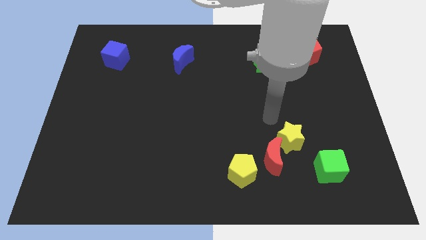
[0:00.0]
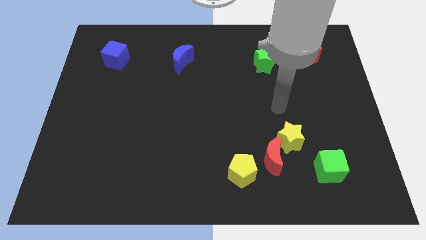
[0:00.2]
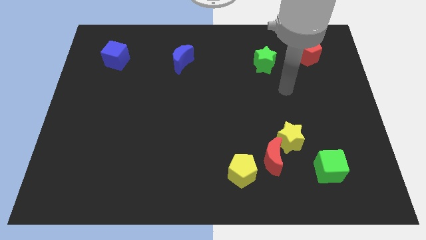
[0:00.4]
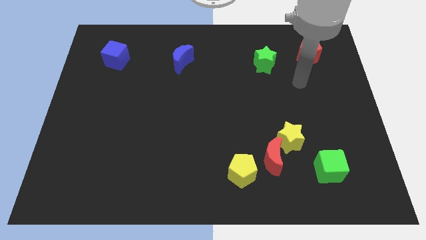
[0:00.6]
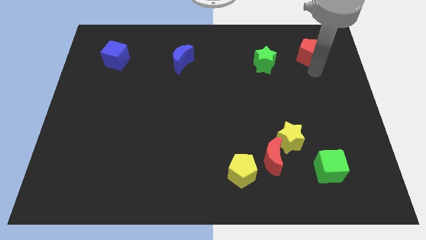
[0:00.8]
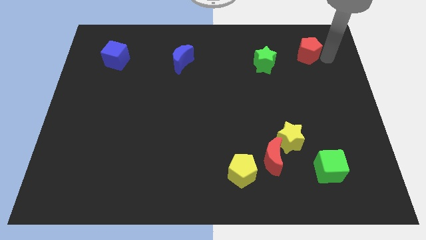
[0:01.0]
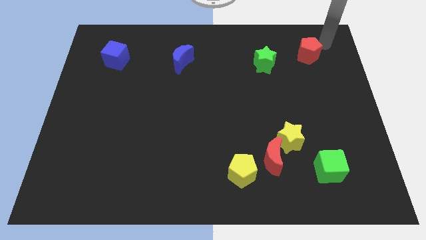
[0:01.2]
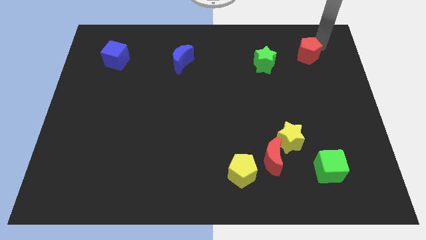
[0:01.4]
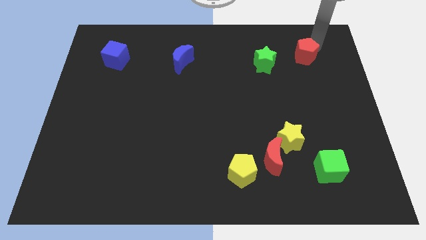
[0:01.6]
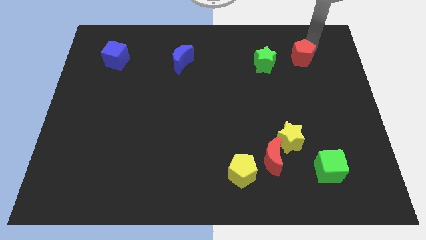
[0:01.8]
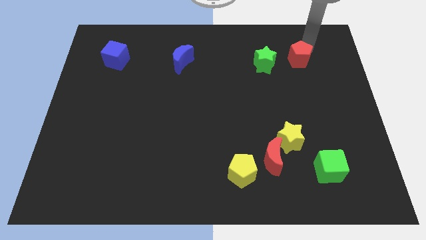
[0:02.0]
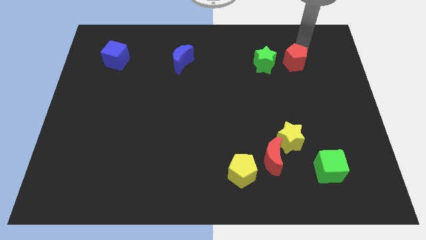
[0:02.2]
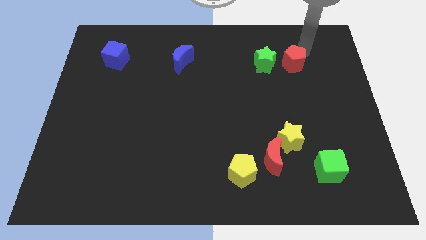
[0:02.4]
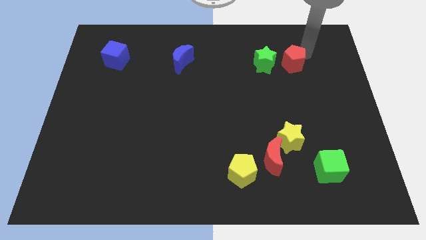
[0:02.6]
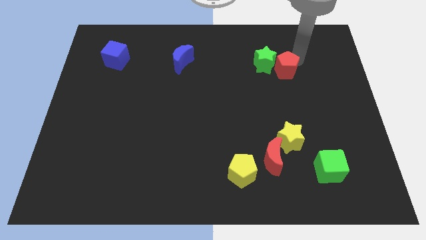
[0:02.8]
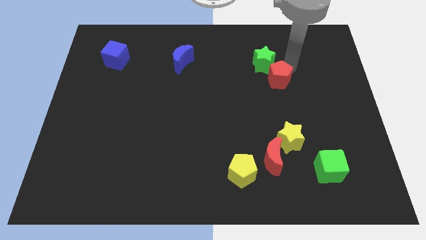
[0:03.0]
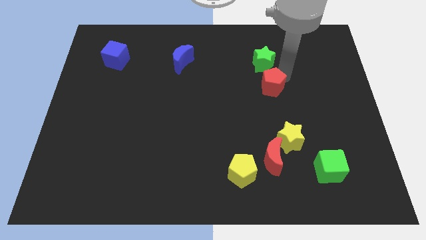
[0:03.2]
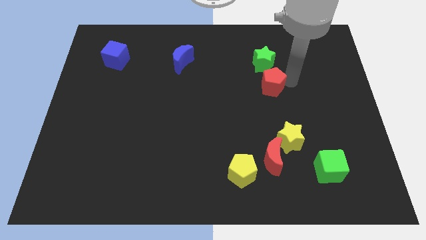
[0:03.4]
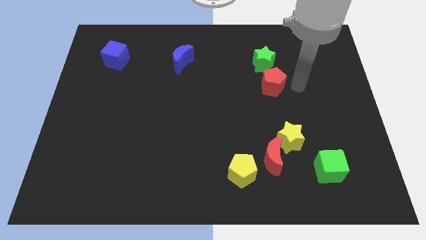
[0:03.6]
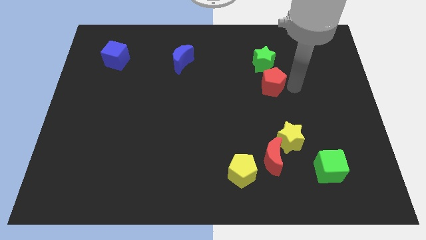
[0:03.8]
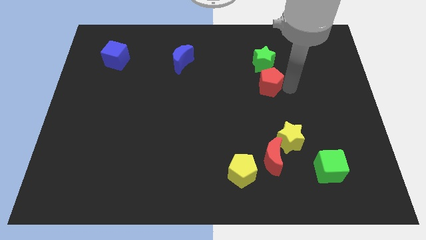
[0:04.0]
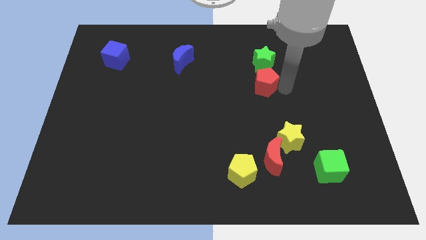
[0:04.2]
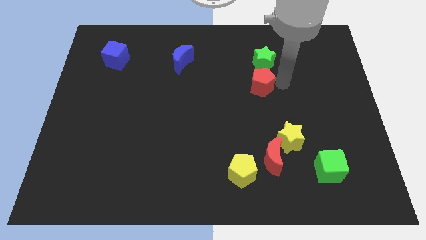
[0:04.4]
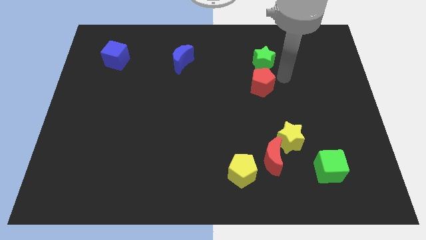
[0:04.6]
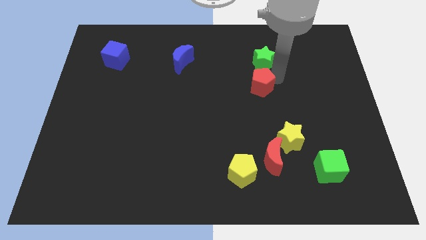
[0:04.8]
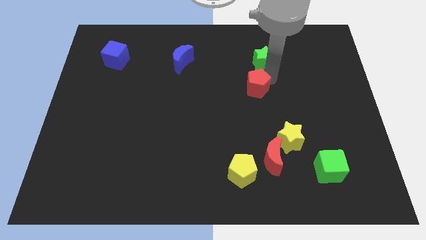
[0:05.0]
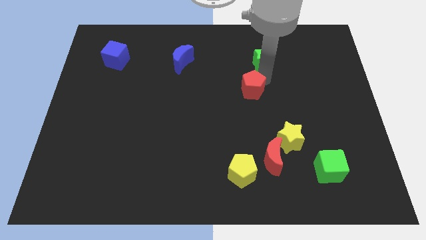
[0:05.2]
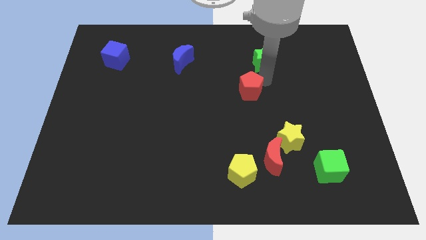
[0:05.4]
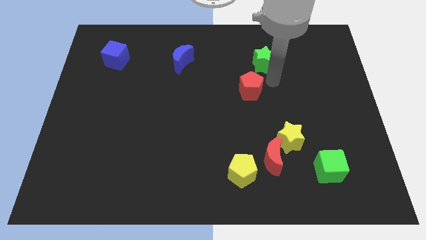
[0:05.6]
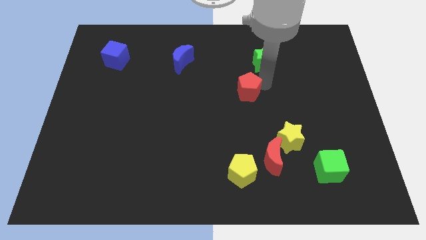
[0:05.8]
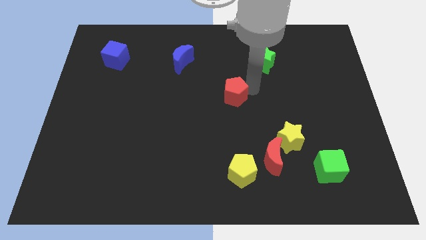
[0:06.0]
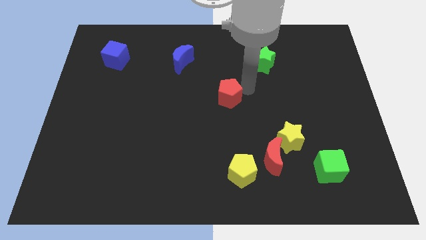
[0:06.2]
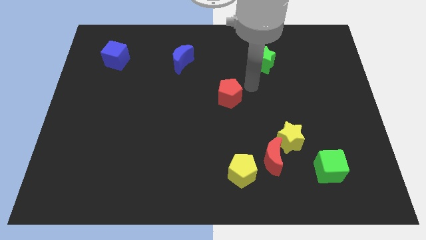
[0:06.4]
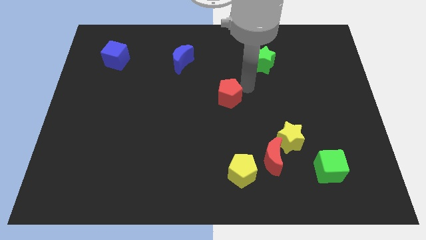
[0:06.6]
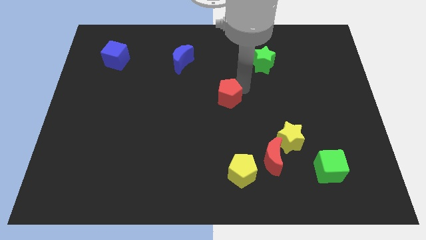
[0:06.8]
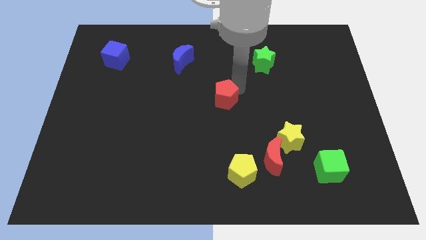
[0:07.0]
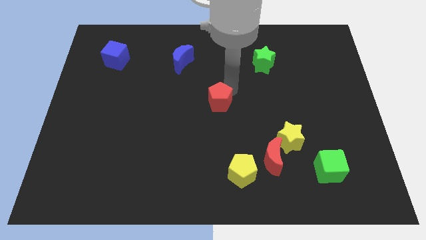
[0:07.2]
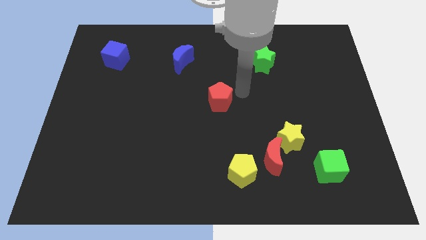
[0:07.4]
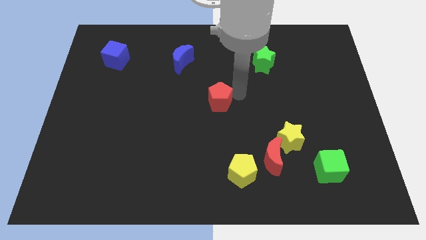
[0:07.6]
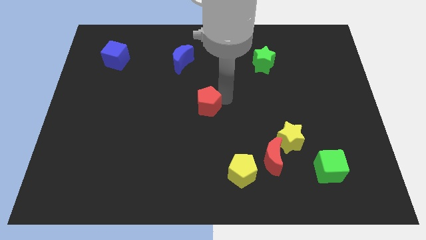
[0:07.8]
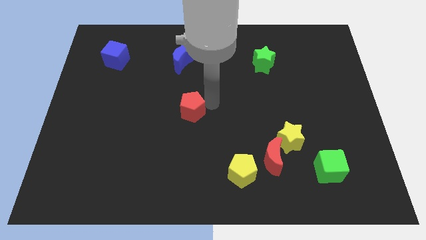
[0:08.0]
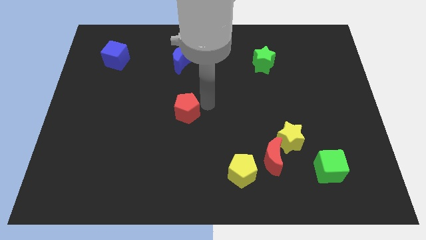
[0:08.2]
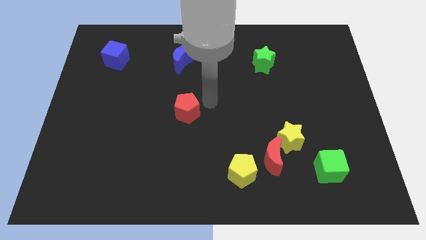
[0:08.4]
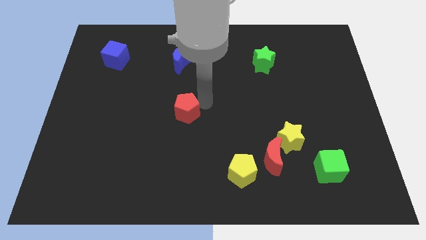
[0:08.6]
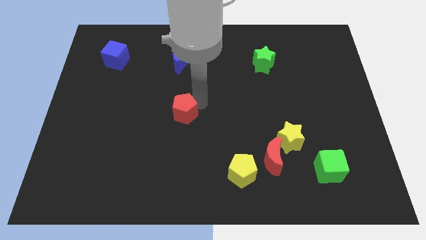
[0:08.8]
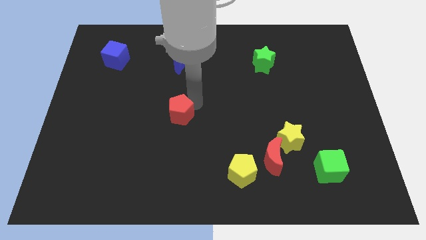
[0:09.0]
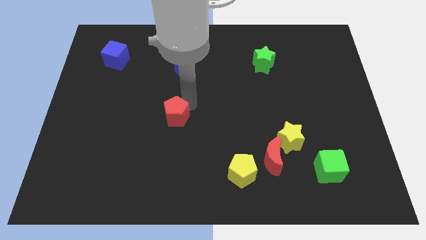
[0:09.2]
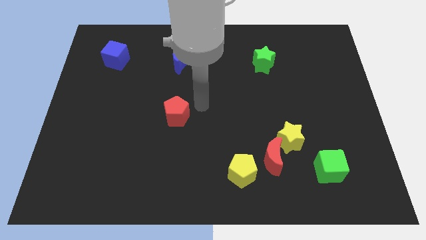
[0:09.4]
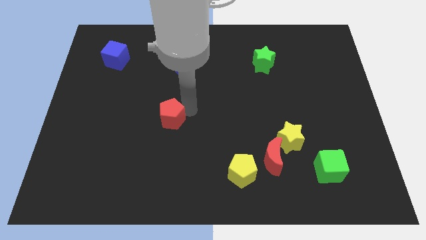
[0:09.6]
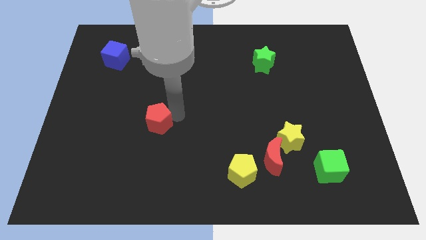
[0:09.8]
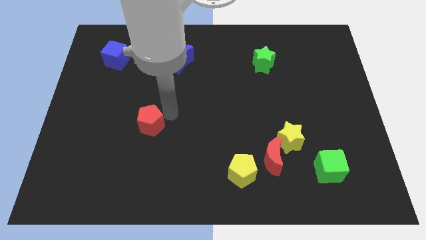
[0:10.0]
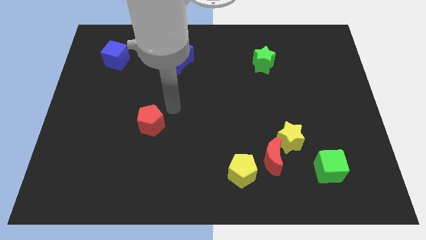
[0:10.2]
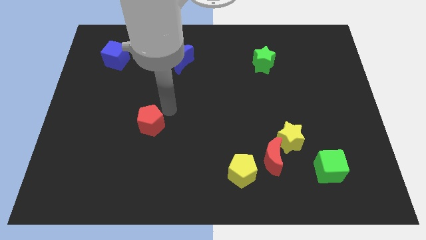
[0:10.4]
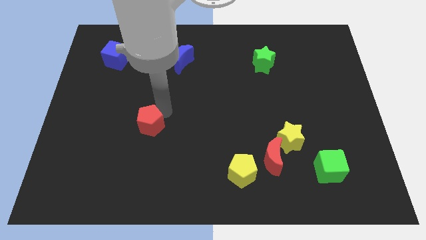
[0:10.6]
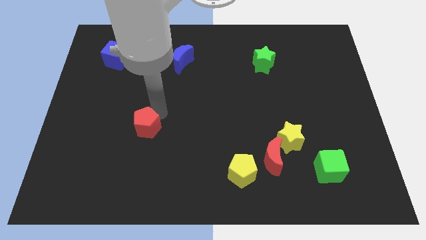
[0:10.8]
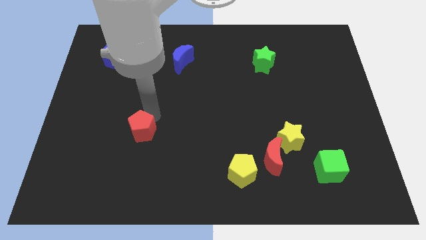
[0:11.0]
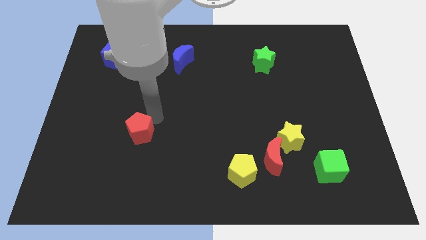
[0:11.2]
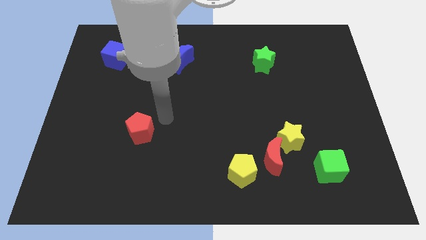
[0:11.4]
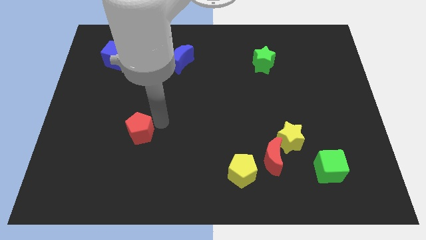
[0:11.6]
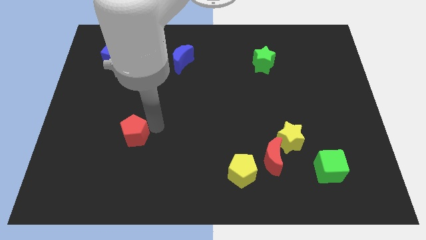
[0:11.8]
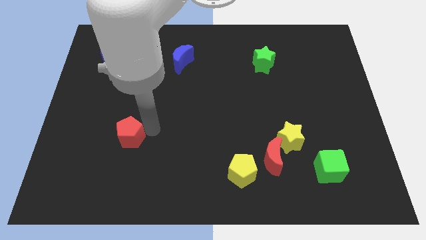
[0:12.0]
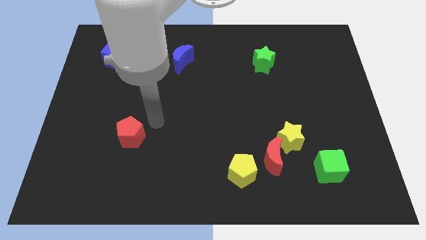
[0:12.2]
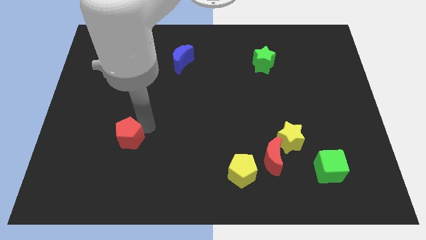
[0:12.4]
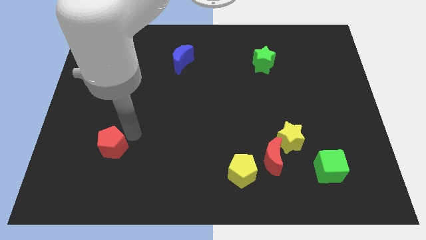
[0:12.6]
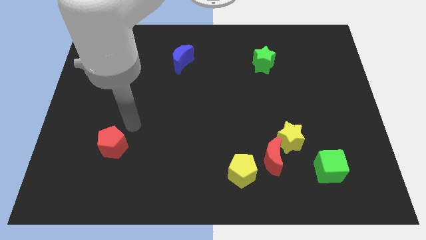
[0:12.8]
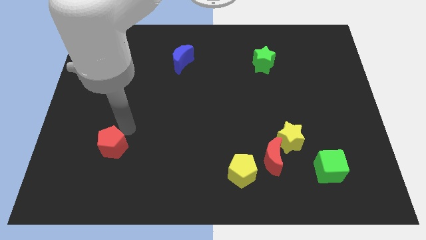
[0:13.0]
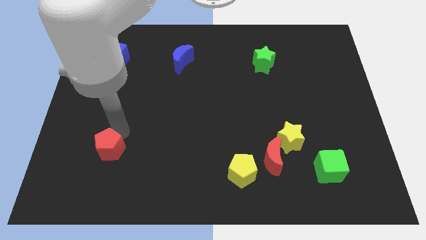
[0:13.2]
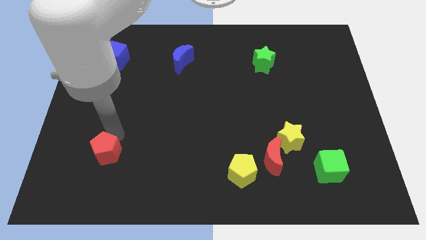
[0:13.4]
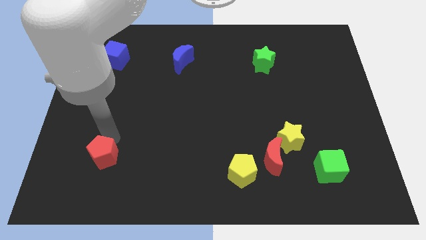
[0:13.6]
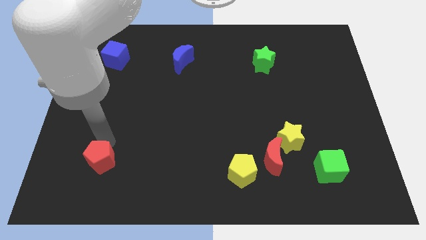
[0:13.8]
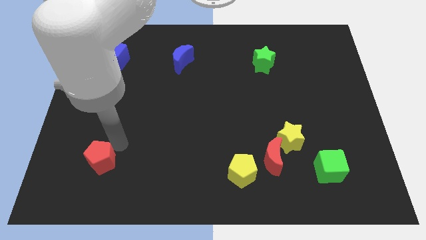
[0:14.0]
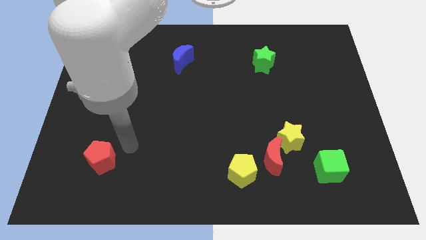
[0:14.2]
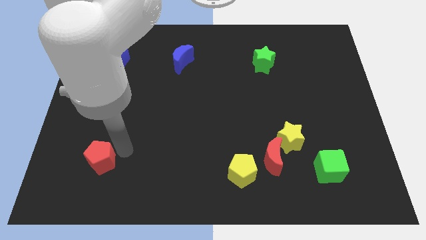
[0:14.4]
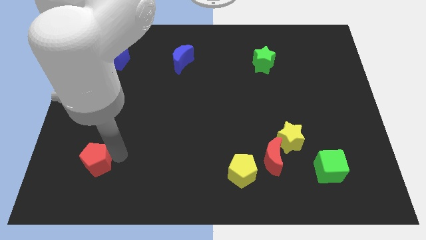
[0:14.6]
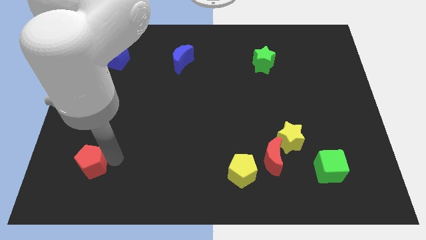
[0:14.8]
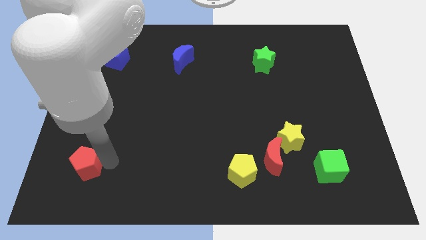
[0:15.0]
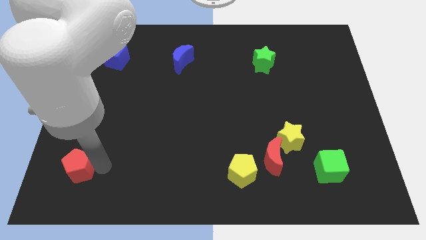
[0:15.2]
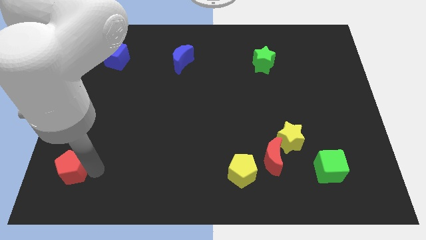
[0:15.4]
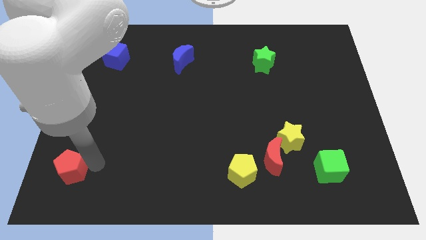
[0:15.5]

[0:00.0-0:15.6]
put the red pentagon to the bottom left of the board
